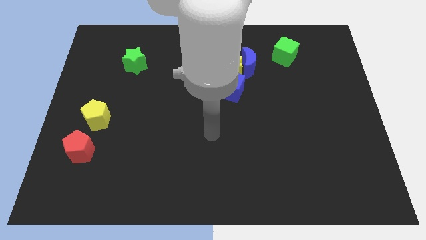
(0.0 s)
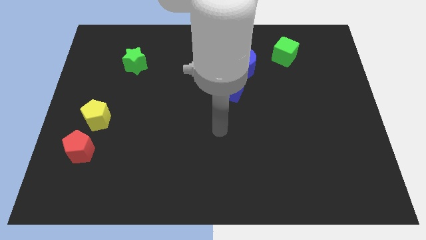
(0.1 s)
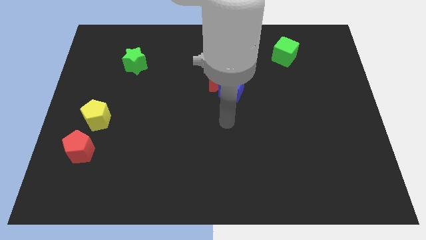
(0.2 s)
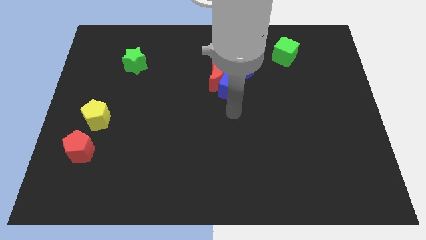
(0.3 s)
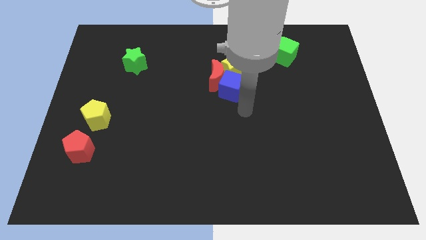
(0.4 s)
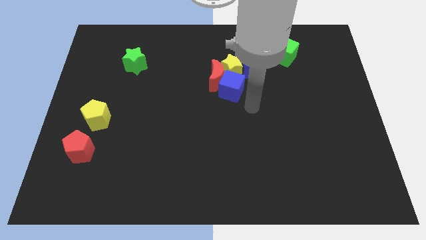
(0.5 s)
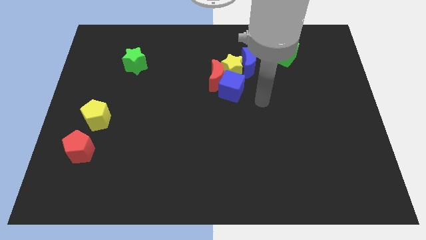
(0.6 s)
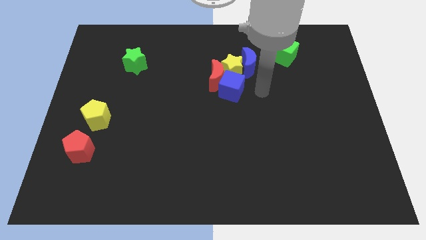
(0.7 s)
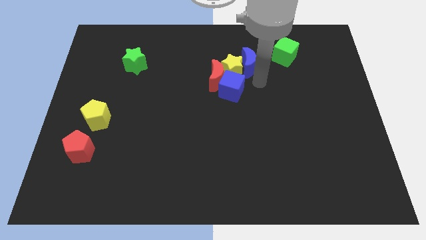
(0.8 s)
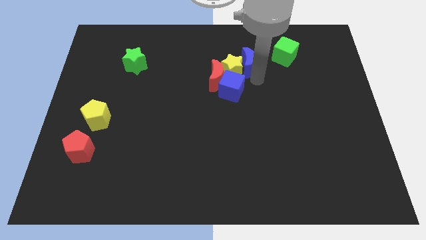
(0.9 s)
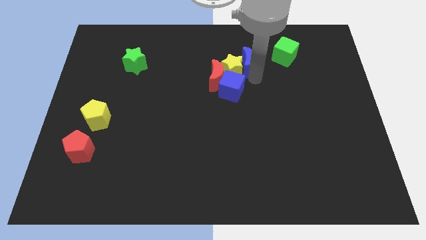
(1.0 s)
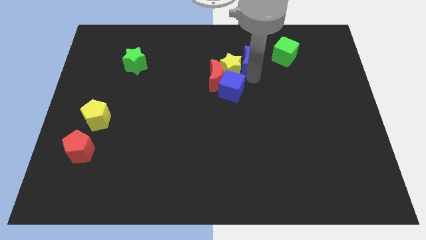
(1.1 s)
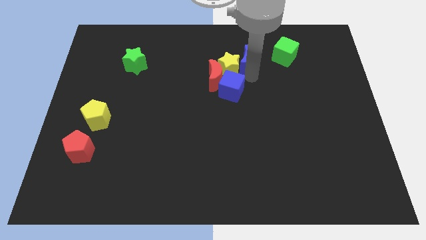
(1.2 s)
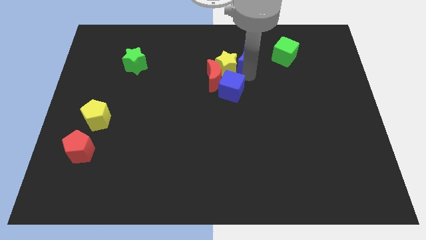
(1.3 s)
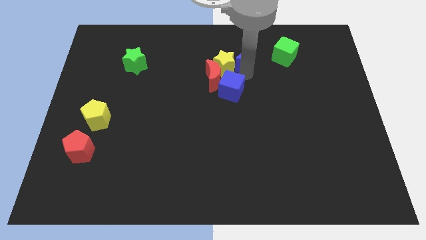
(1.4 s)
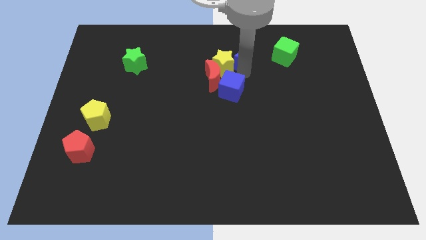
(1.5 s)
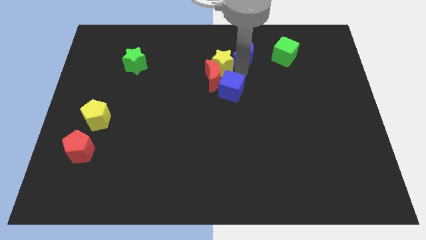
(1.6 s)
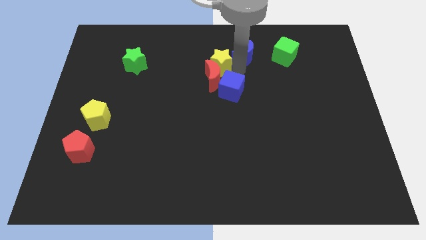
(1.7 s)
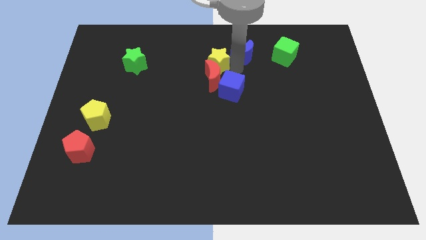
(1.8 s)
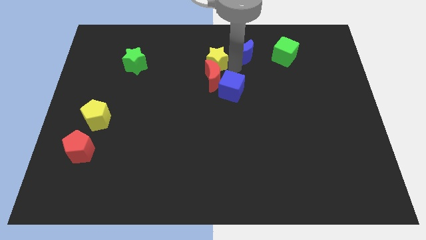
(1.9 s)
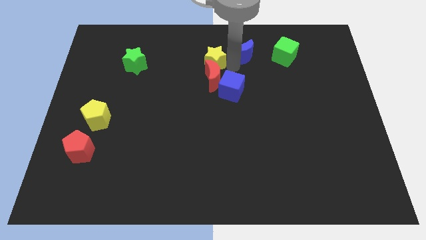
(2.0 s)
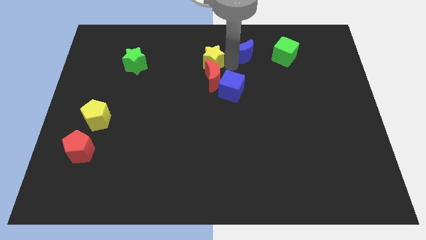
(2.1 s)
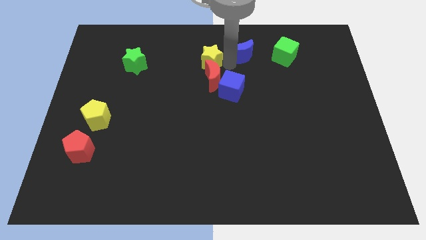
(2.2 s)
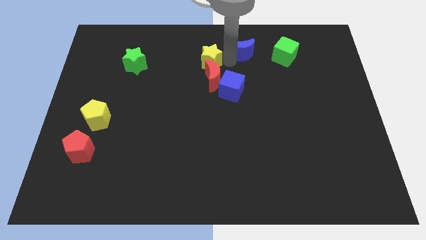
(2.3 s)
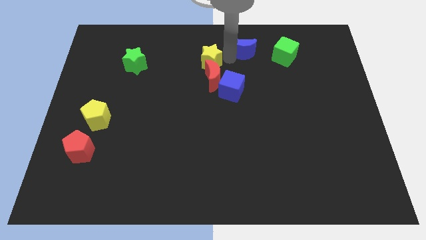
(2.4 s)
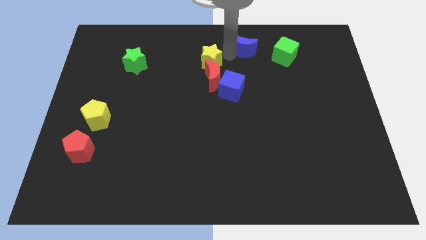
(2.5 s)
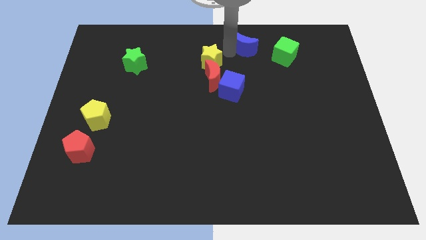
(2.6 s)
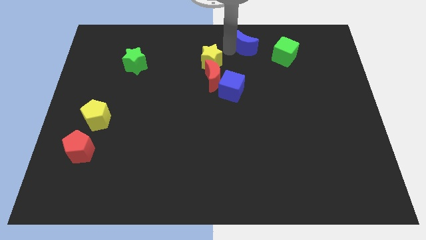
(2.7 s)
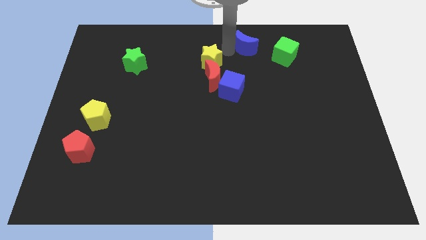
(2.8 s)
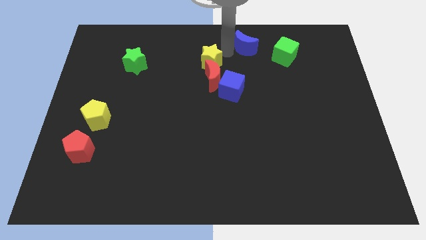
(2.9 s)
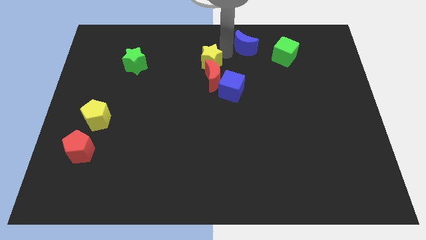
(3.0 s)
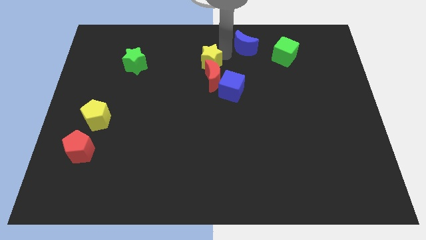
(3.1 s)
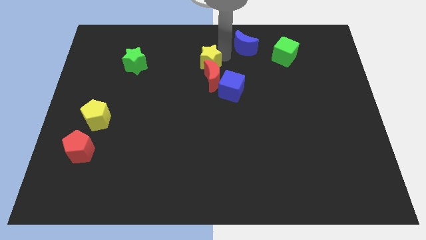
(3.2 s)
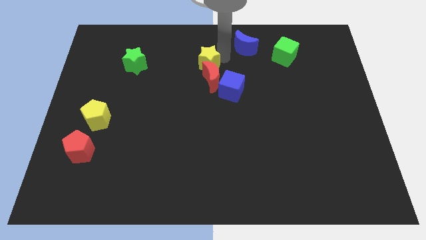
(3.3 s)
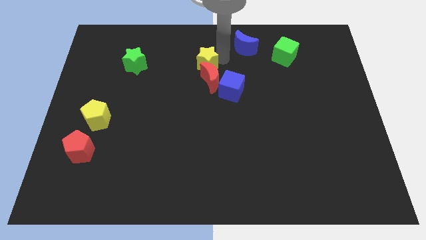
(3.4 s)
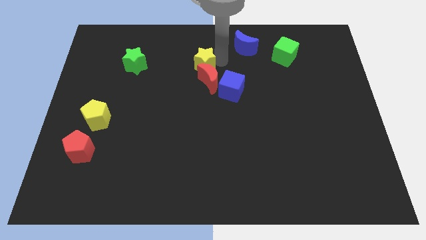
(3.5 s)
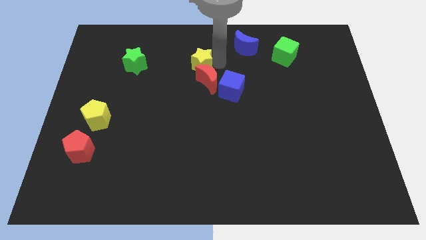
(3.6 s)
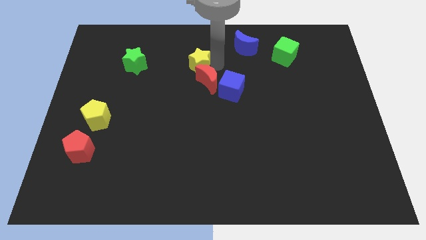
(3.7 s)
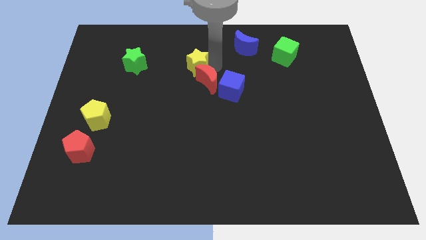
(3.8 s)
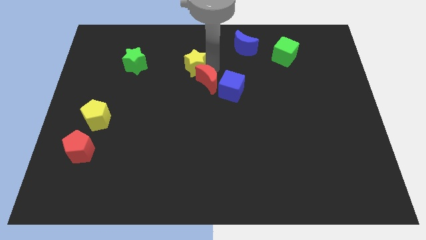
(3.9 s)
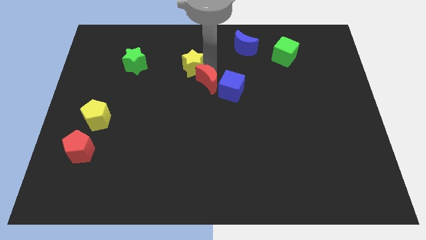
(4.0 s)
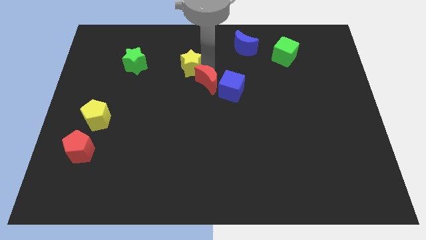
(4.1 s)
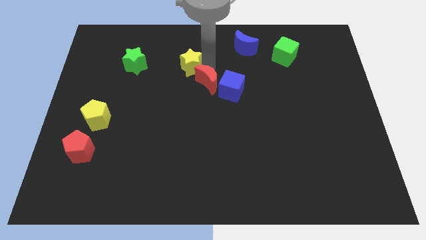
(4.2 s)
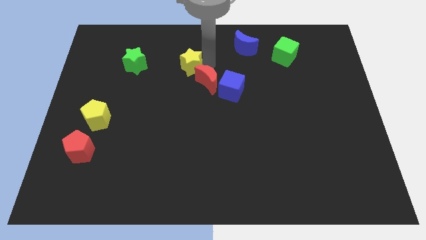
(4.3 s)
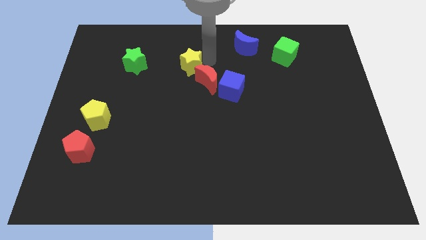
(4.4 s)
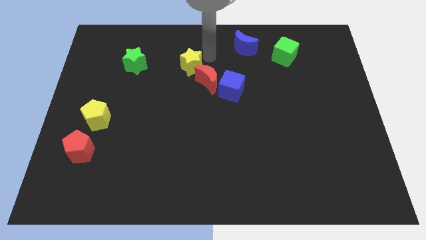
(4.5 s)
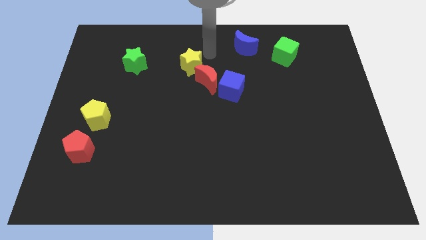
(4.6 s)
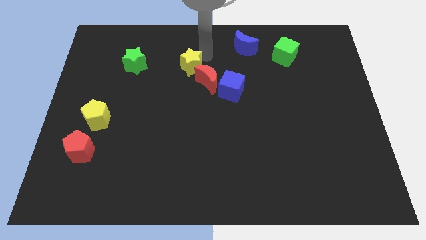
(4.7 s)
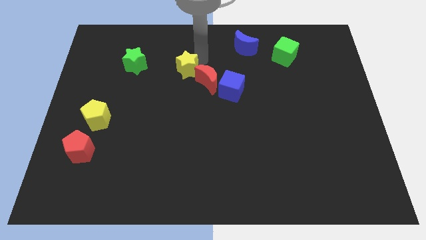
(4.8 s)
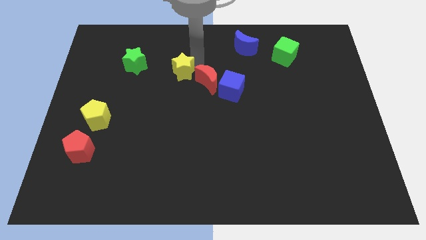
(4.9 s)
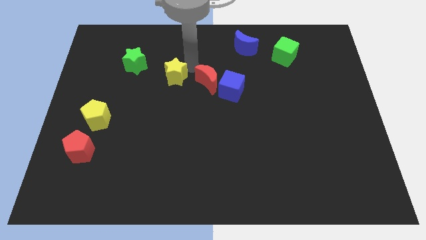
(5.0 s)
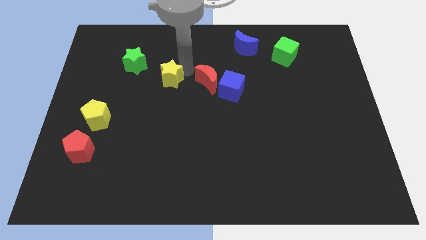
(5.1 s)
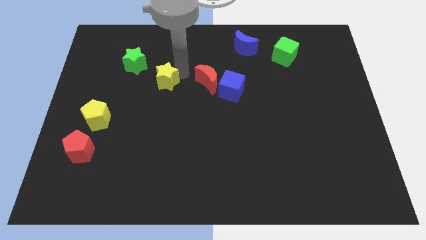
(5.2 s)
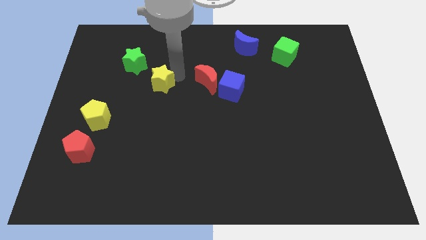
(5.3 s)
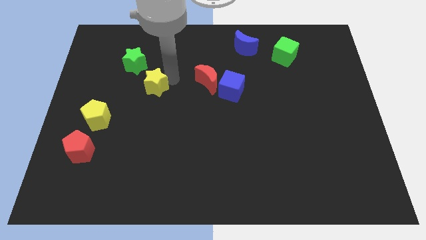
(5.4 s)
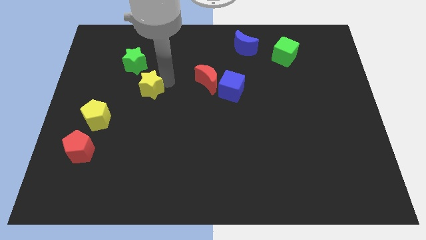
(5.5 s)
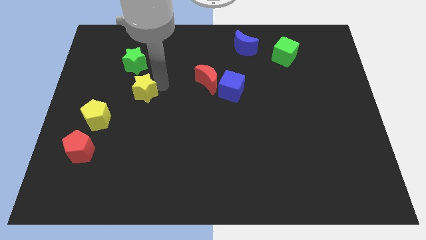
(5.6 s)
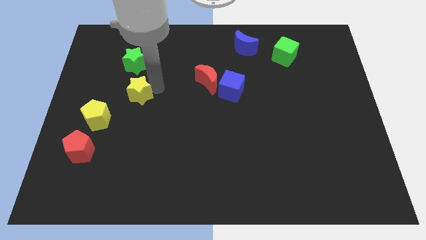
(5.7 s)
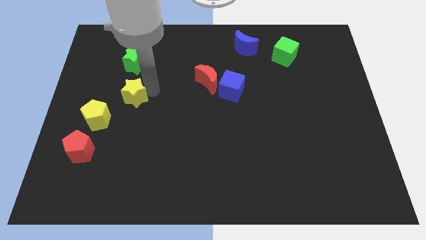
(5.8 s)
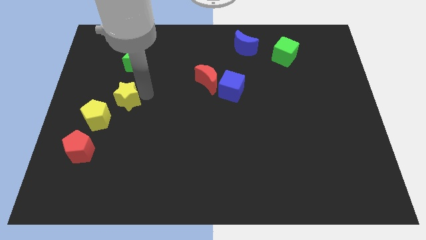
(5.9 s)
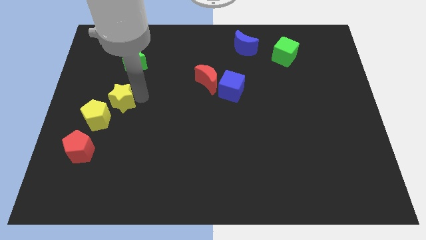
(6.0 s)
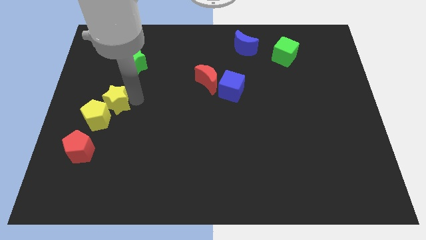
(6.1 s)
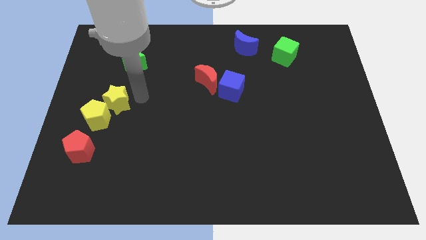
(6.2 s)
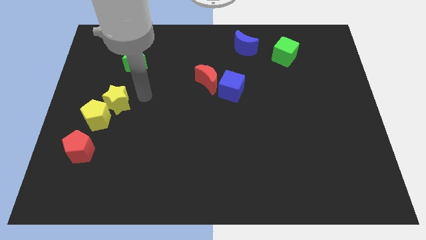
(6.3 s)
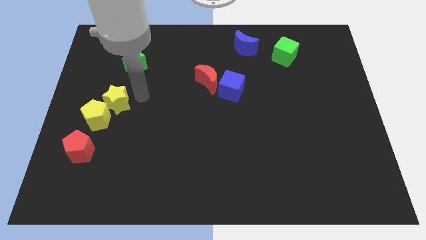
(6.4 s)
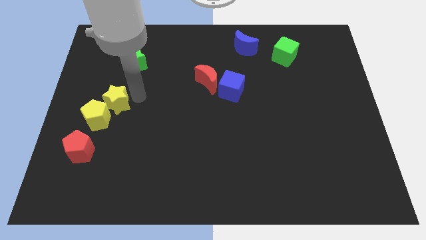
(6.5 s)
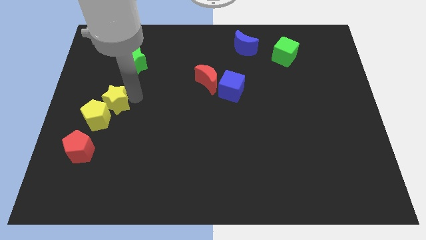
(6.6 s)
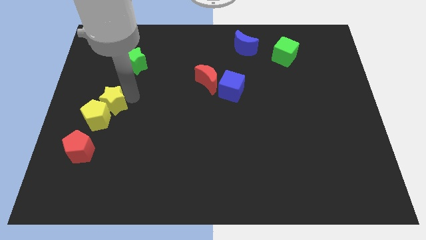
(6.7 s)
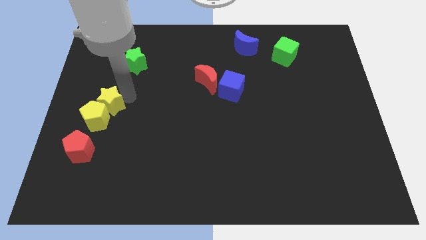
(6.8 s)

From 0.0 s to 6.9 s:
put the yellow star to the top of the red pentagon

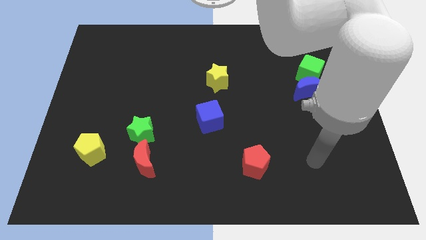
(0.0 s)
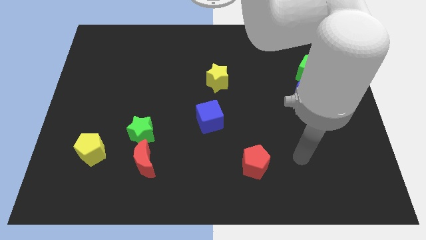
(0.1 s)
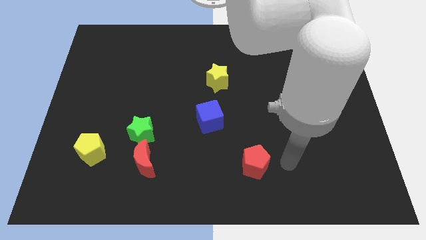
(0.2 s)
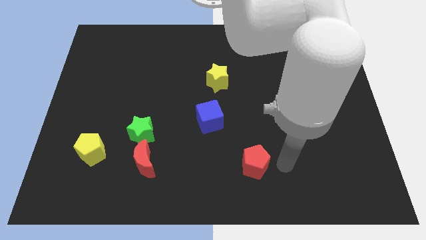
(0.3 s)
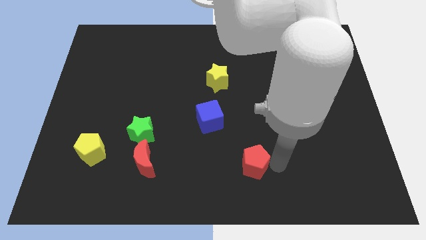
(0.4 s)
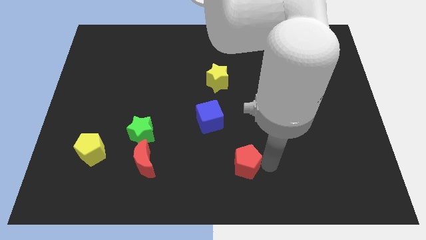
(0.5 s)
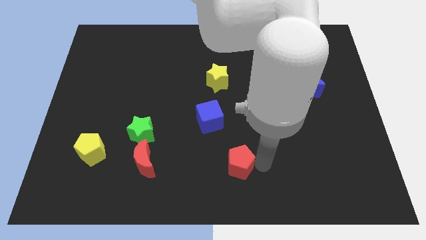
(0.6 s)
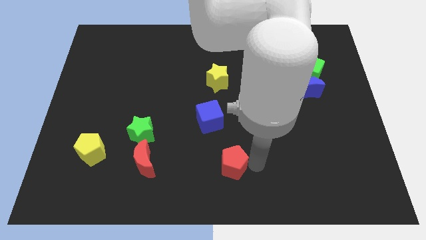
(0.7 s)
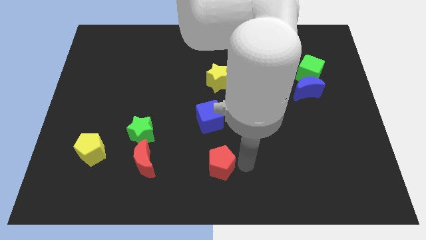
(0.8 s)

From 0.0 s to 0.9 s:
move the red pentagon to the right side of the red moon
